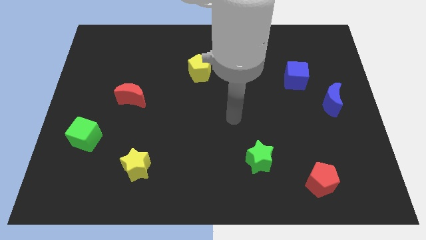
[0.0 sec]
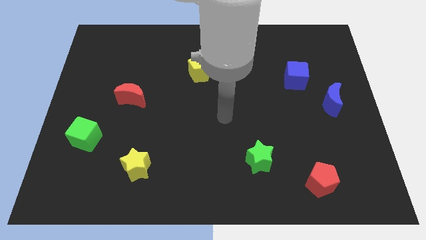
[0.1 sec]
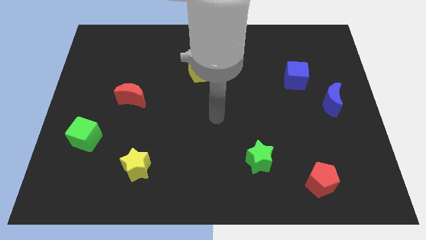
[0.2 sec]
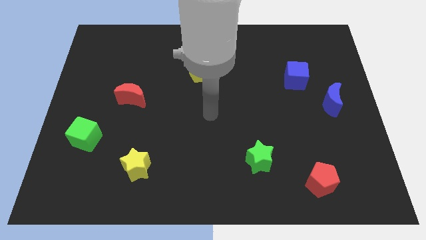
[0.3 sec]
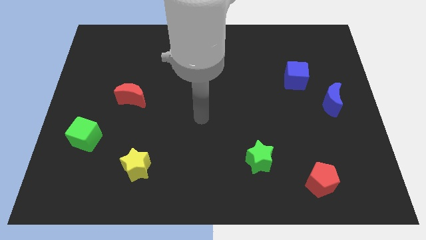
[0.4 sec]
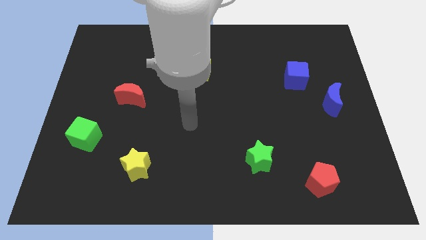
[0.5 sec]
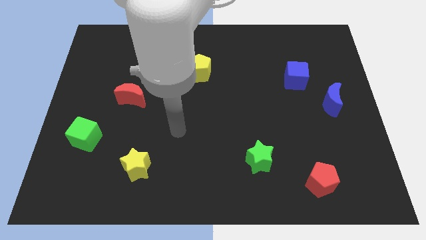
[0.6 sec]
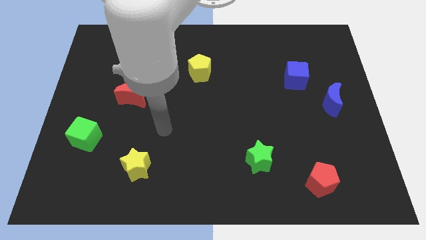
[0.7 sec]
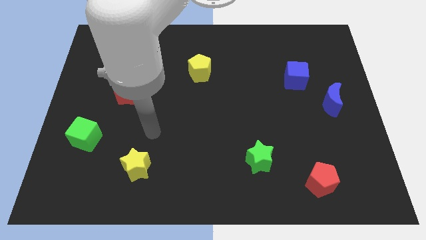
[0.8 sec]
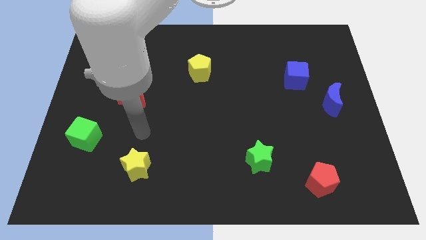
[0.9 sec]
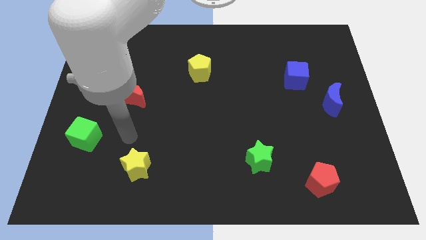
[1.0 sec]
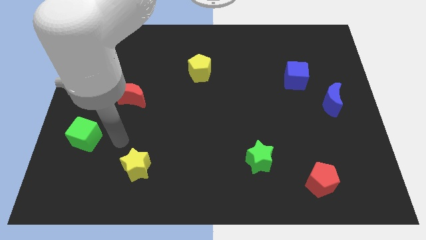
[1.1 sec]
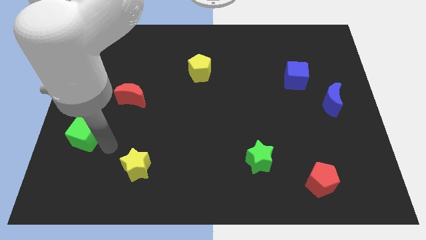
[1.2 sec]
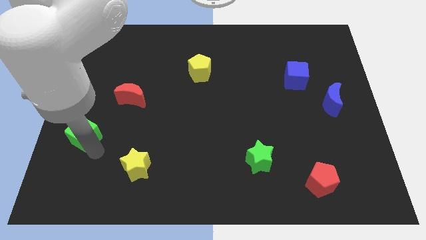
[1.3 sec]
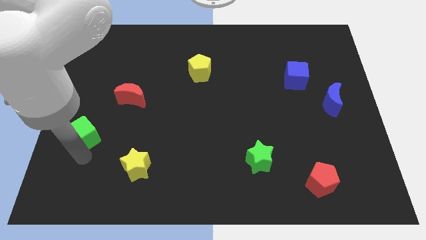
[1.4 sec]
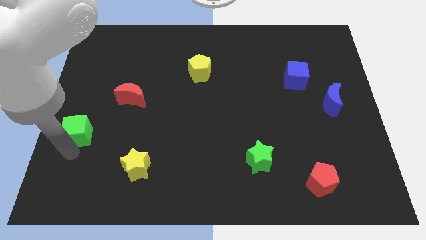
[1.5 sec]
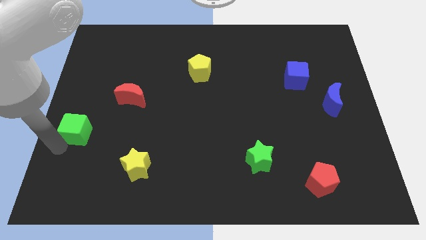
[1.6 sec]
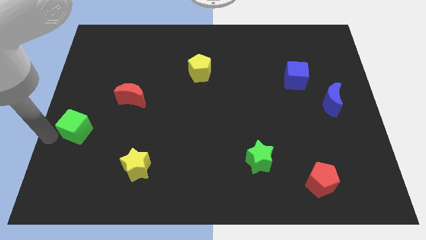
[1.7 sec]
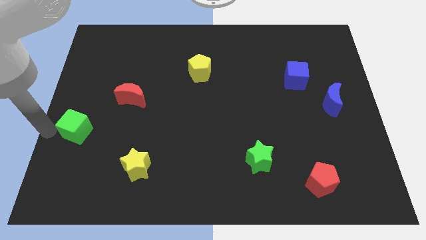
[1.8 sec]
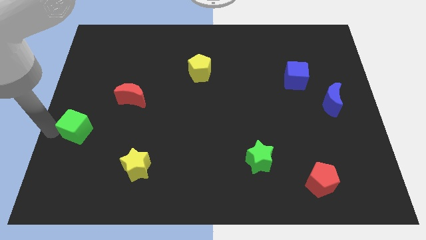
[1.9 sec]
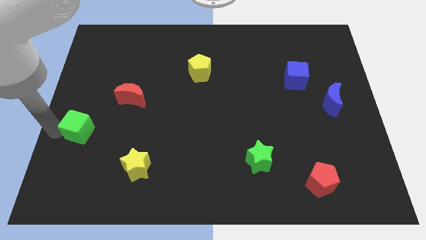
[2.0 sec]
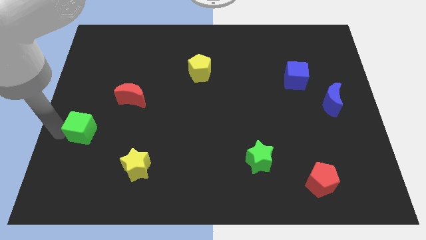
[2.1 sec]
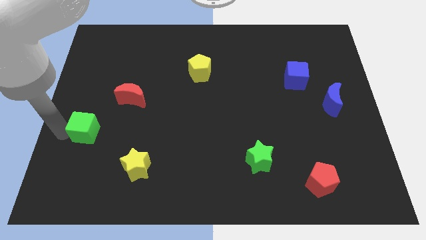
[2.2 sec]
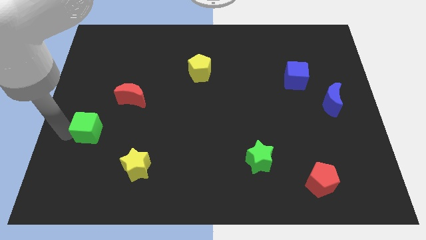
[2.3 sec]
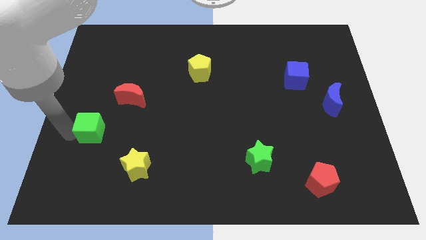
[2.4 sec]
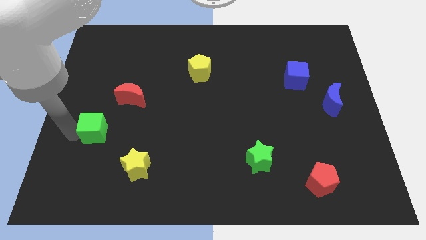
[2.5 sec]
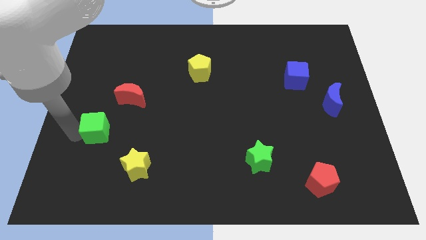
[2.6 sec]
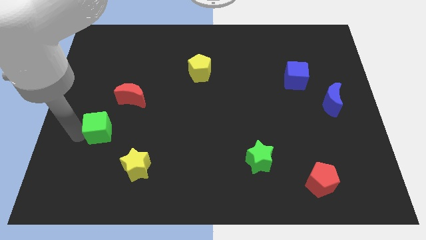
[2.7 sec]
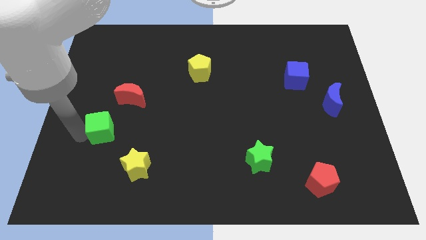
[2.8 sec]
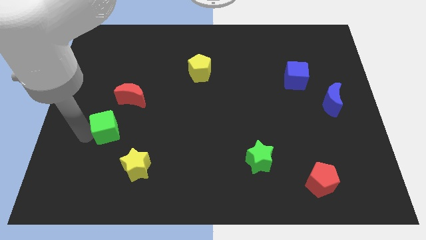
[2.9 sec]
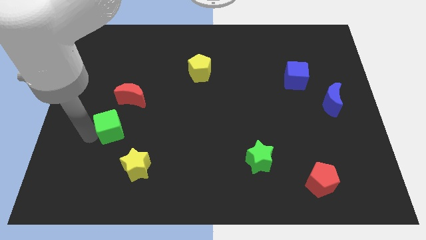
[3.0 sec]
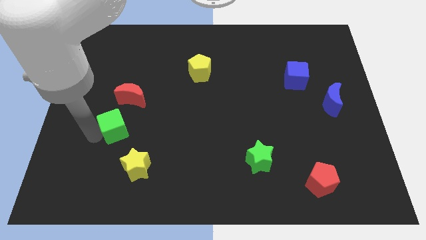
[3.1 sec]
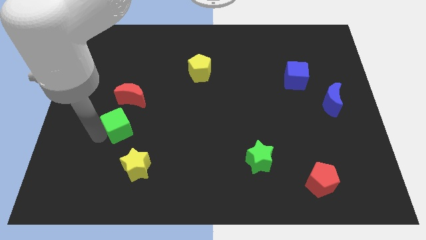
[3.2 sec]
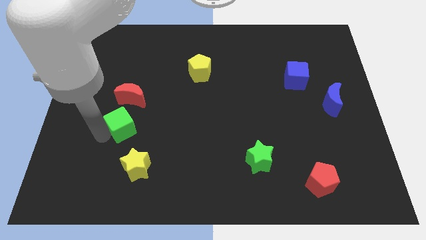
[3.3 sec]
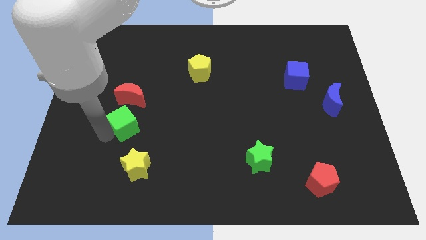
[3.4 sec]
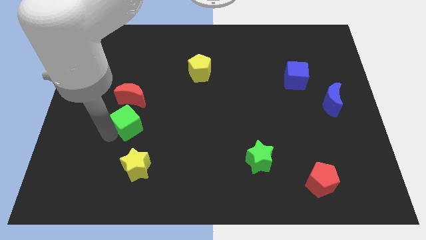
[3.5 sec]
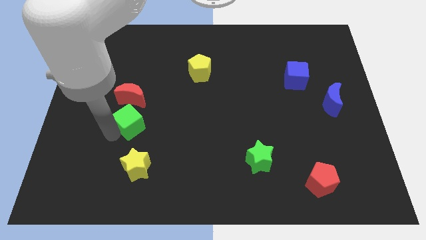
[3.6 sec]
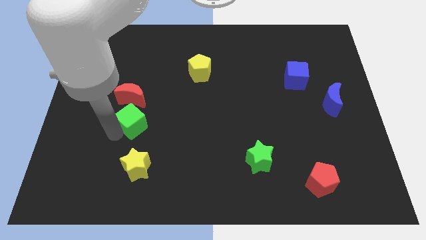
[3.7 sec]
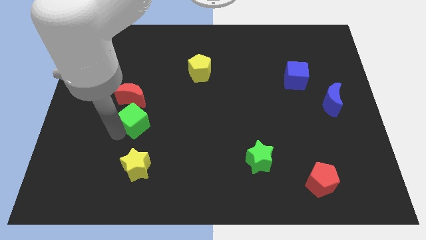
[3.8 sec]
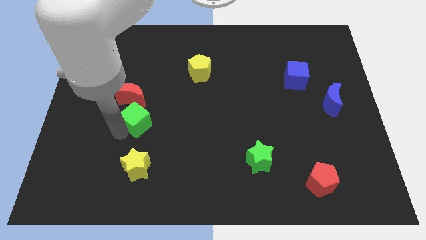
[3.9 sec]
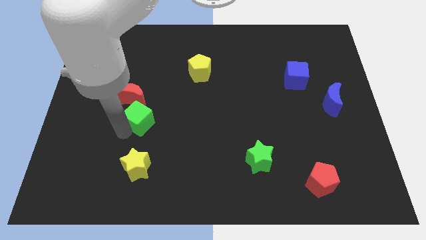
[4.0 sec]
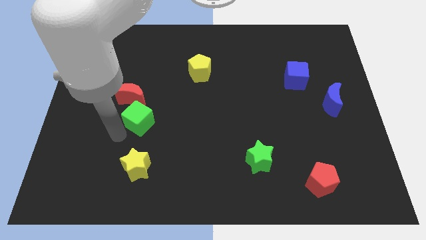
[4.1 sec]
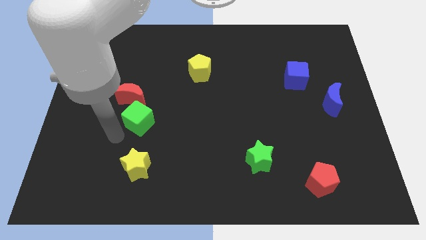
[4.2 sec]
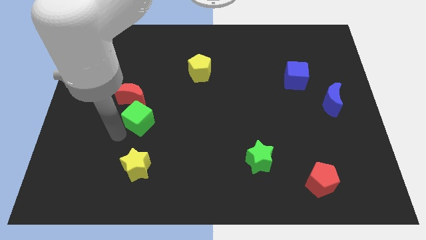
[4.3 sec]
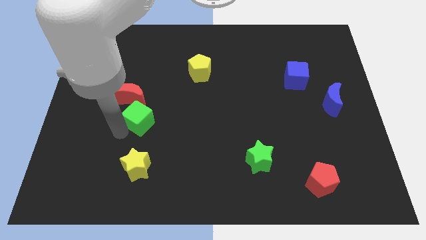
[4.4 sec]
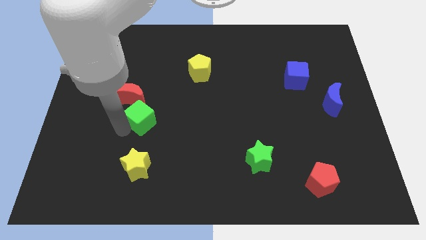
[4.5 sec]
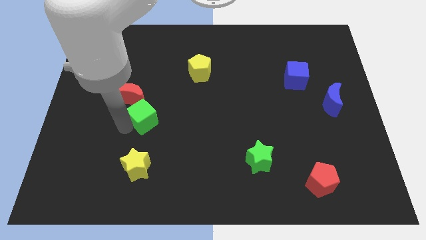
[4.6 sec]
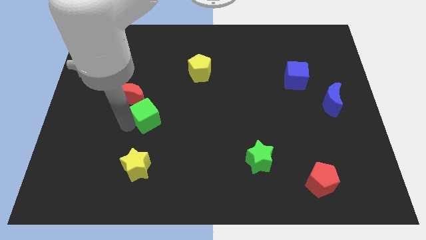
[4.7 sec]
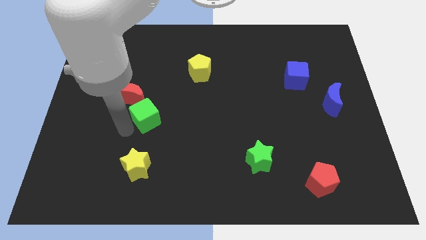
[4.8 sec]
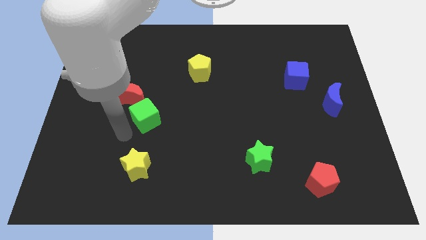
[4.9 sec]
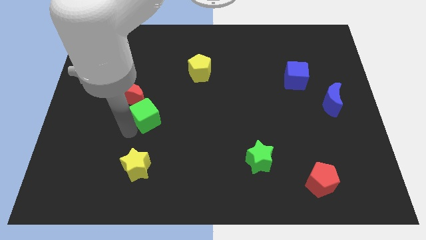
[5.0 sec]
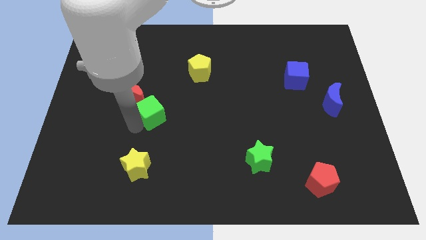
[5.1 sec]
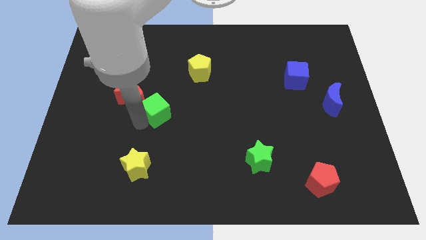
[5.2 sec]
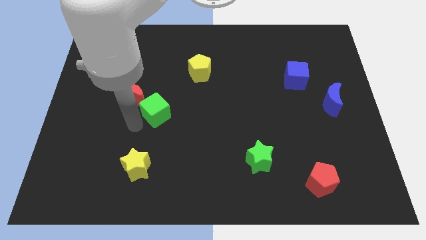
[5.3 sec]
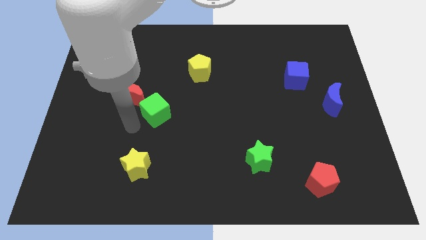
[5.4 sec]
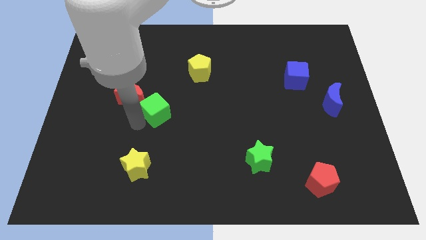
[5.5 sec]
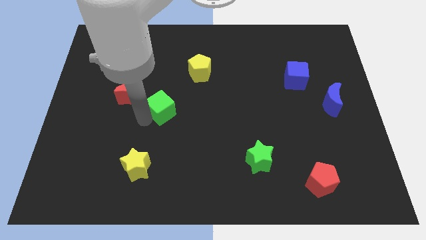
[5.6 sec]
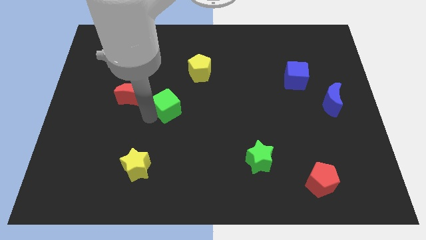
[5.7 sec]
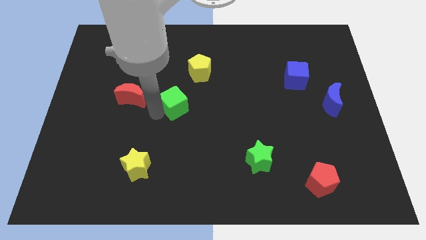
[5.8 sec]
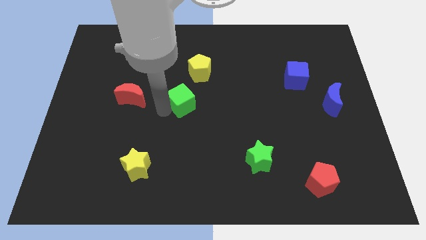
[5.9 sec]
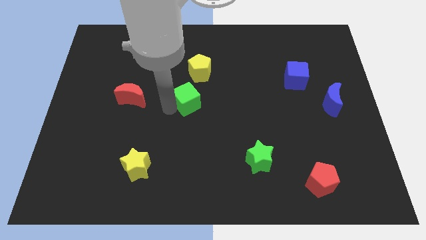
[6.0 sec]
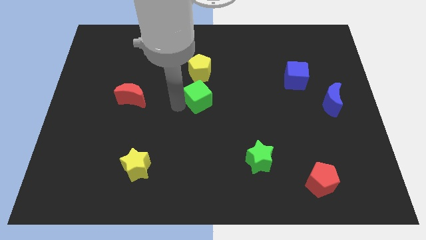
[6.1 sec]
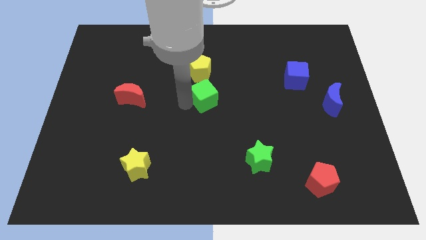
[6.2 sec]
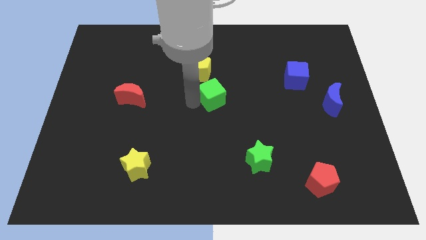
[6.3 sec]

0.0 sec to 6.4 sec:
put the green cube to the bottom right of the yellow pentagon
